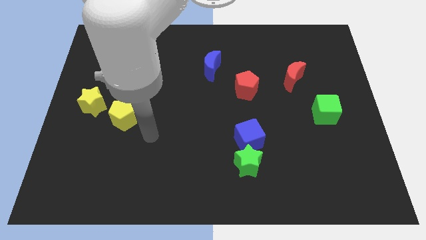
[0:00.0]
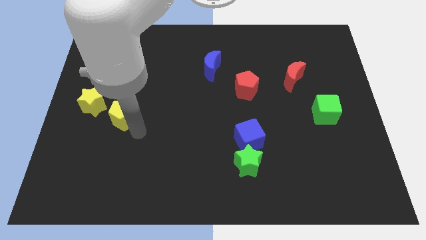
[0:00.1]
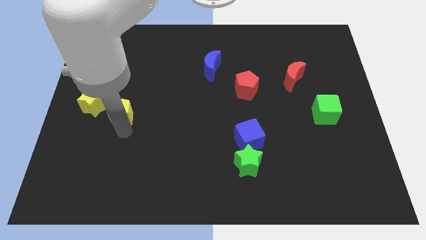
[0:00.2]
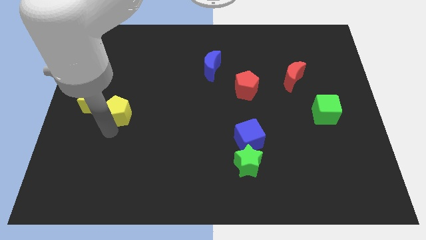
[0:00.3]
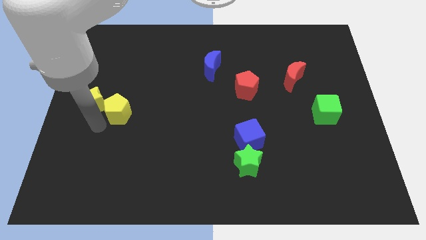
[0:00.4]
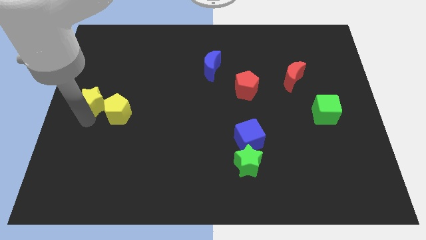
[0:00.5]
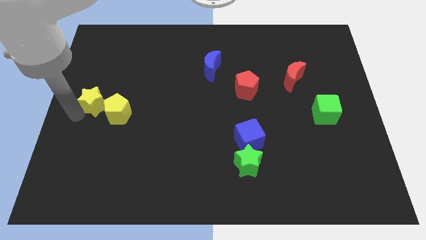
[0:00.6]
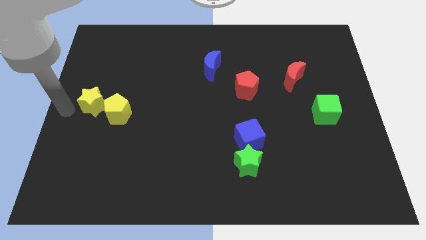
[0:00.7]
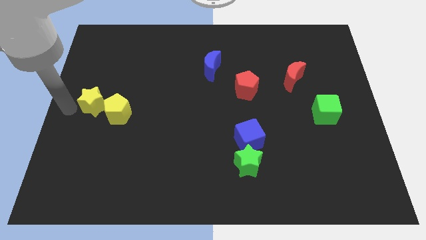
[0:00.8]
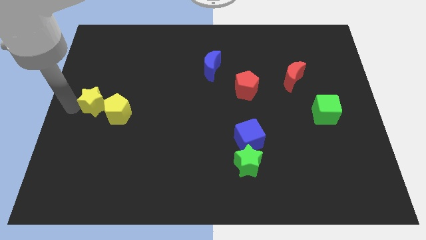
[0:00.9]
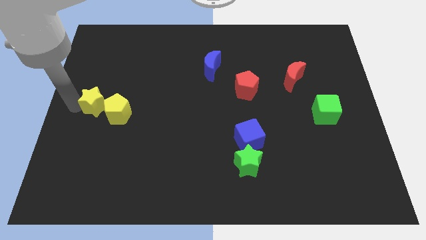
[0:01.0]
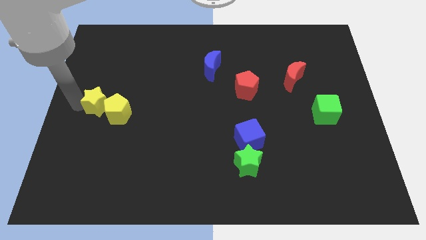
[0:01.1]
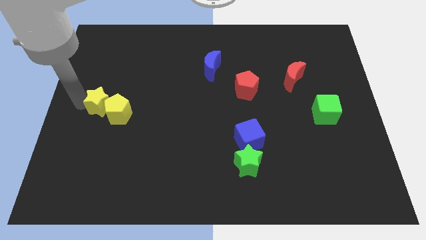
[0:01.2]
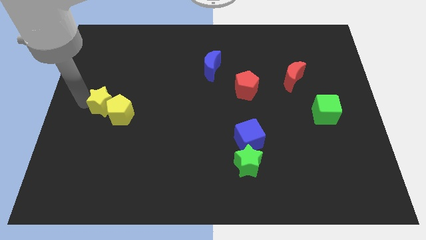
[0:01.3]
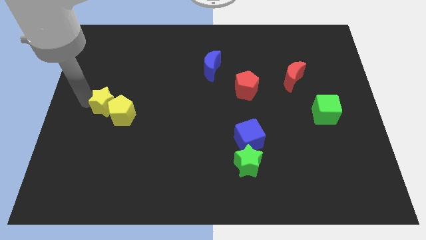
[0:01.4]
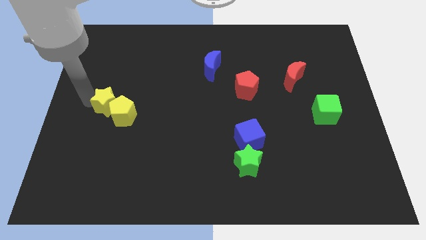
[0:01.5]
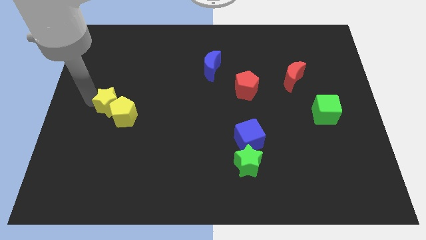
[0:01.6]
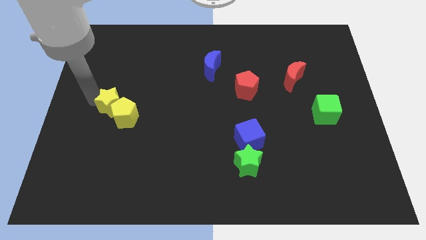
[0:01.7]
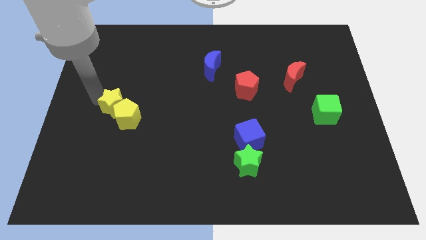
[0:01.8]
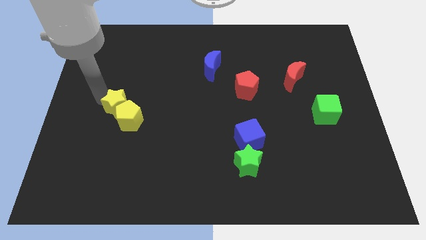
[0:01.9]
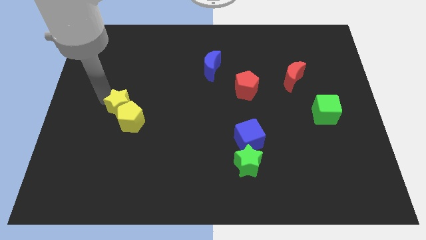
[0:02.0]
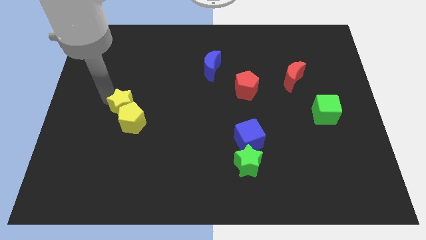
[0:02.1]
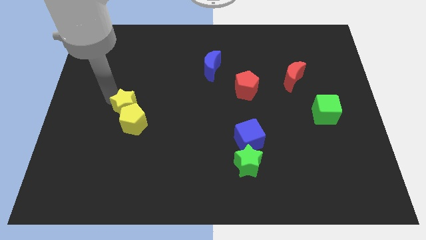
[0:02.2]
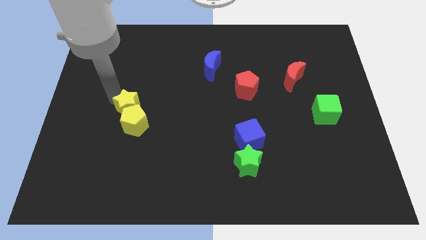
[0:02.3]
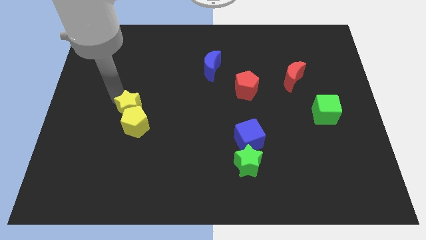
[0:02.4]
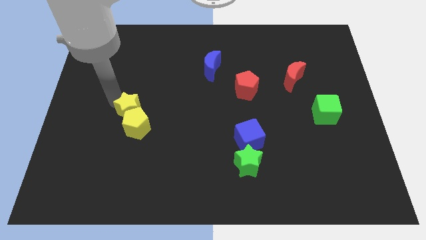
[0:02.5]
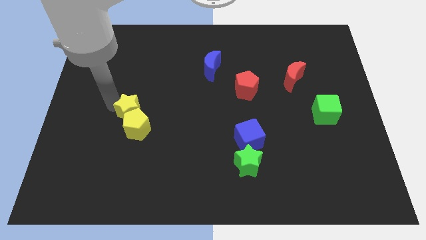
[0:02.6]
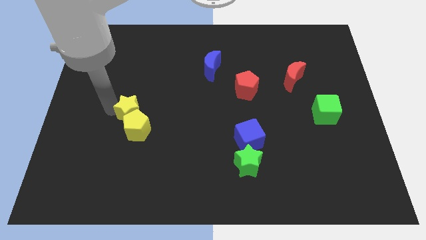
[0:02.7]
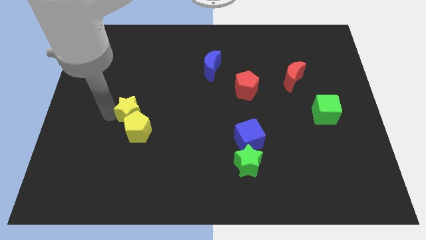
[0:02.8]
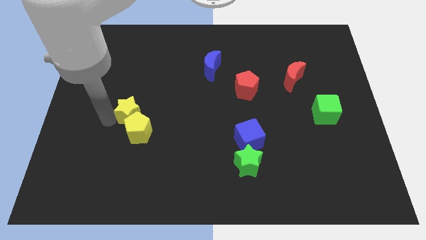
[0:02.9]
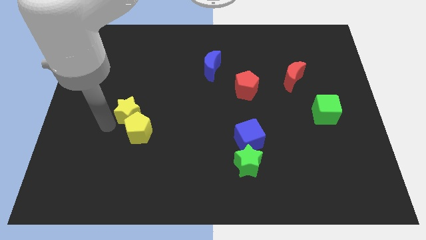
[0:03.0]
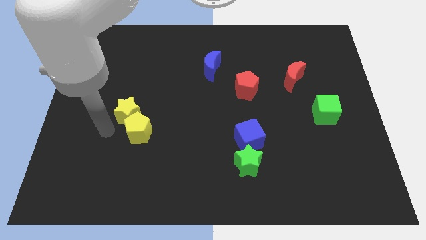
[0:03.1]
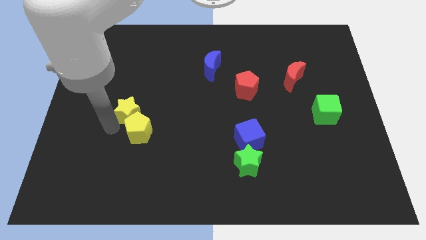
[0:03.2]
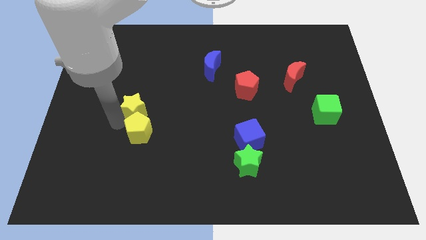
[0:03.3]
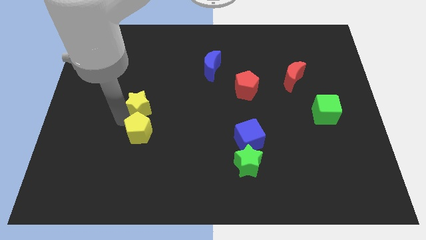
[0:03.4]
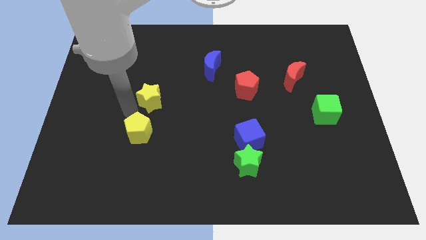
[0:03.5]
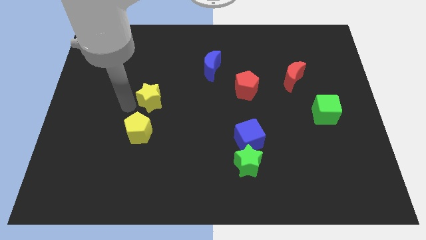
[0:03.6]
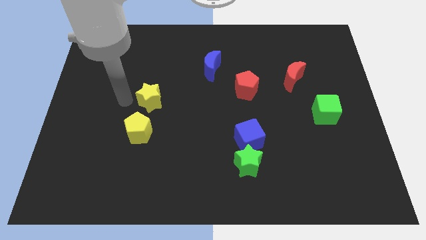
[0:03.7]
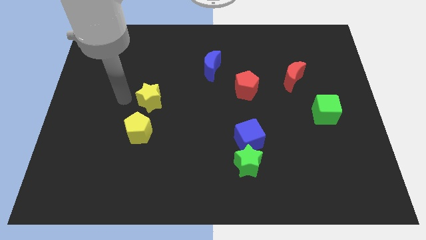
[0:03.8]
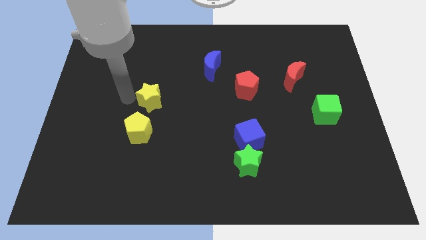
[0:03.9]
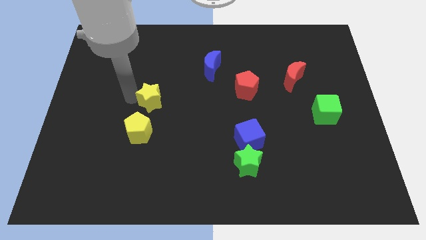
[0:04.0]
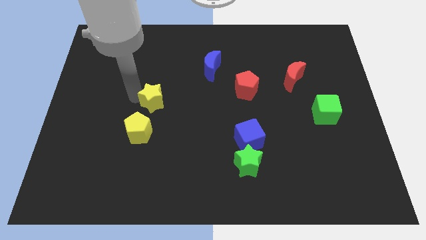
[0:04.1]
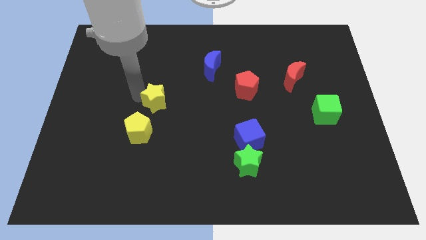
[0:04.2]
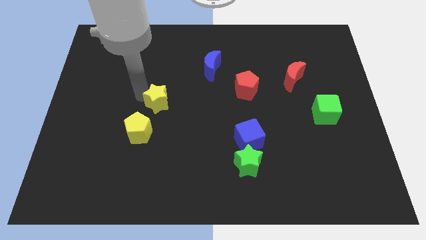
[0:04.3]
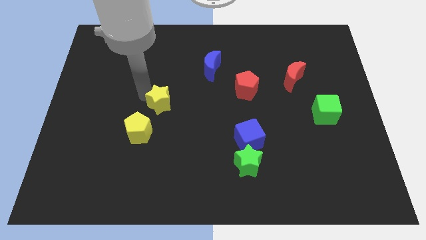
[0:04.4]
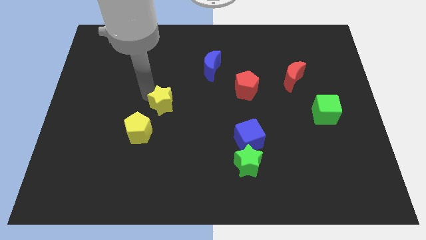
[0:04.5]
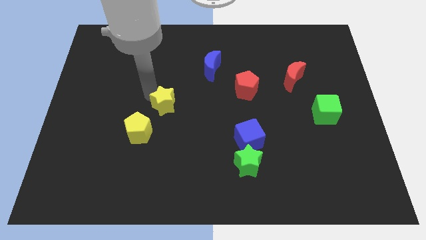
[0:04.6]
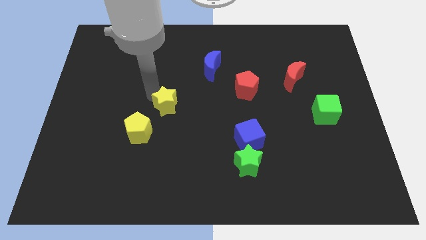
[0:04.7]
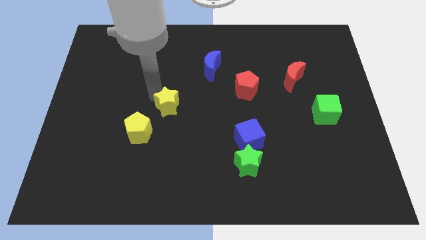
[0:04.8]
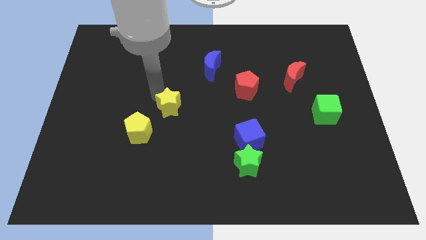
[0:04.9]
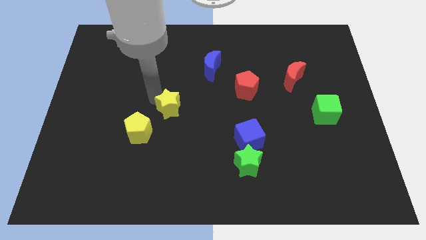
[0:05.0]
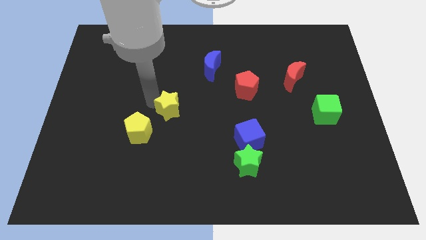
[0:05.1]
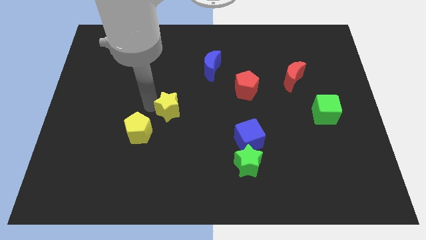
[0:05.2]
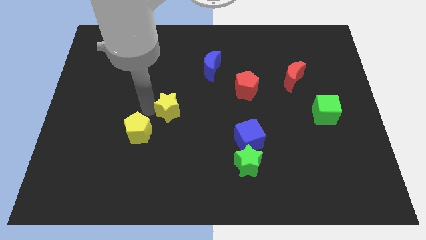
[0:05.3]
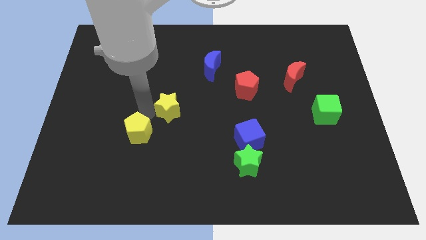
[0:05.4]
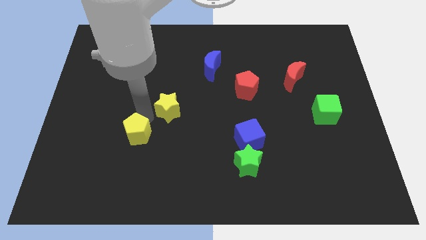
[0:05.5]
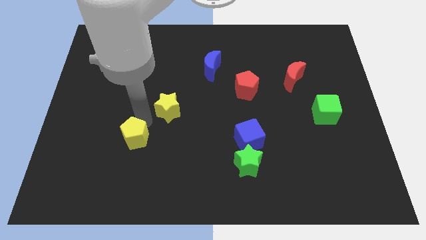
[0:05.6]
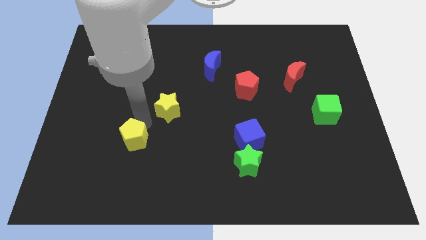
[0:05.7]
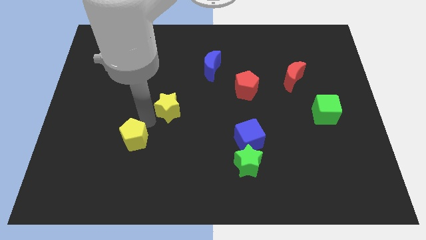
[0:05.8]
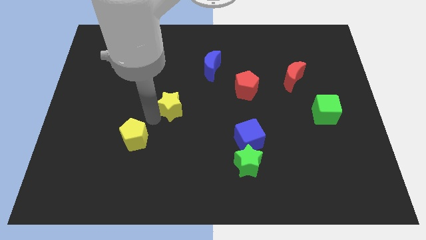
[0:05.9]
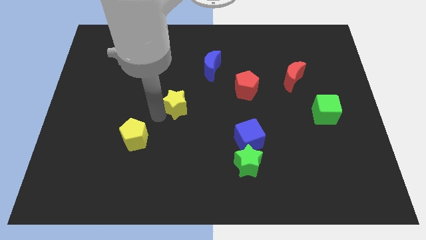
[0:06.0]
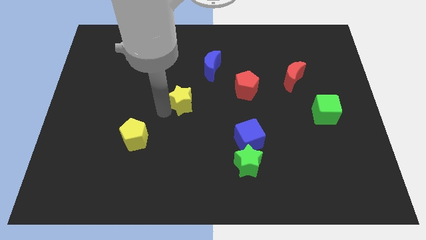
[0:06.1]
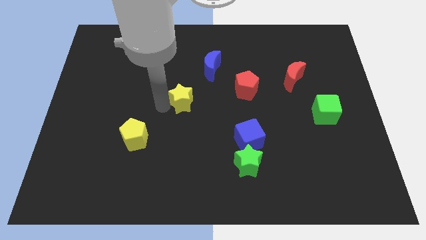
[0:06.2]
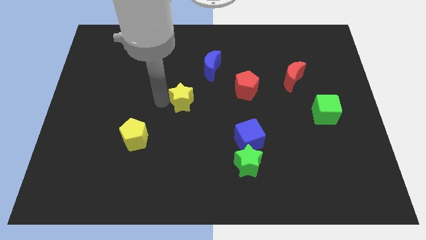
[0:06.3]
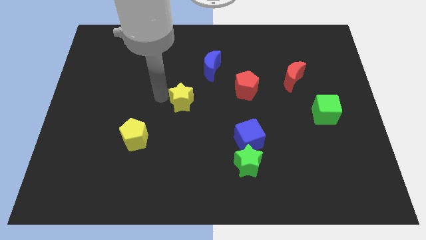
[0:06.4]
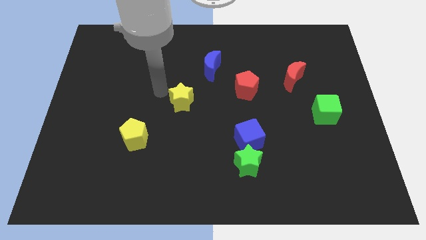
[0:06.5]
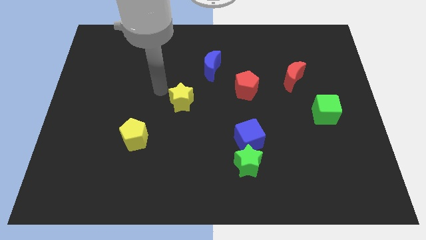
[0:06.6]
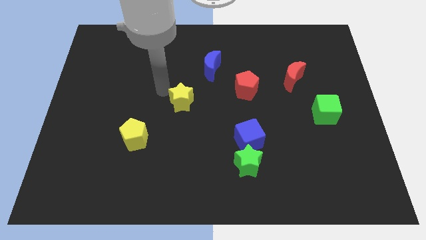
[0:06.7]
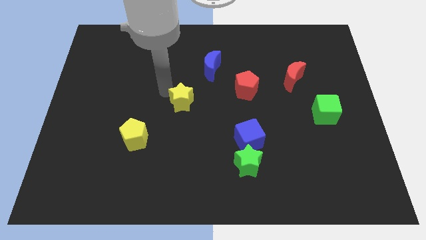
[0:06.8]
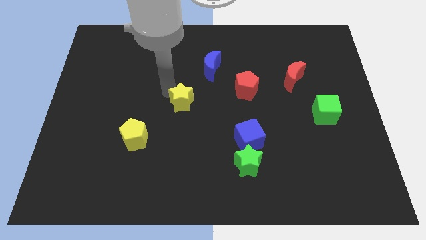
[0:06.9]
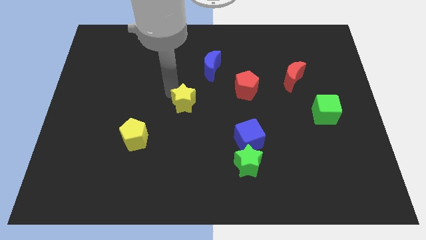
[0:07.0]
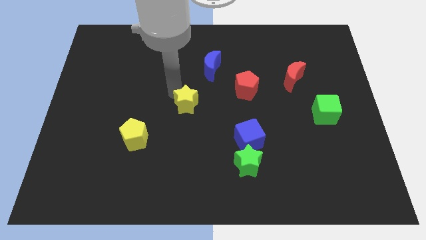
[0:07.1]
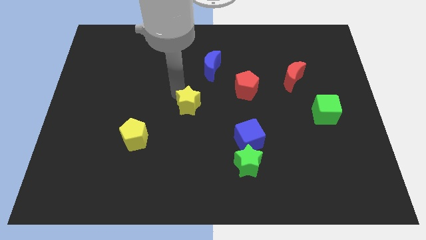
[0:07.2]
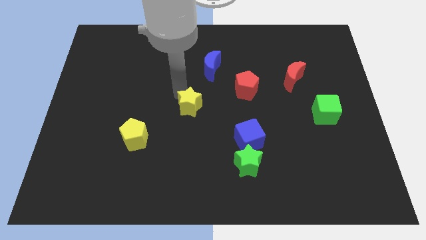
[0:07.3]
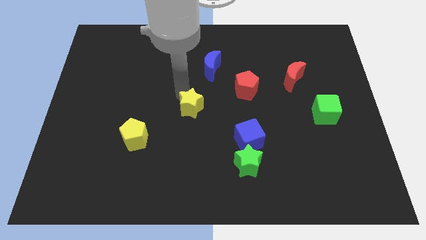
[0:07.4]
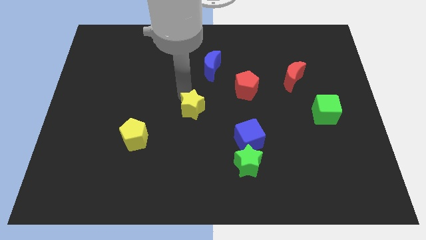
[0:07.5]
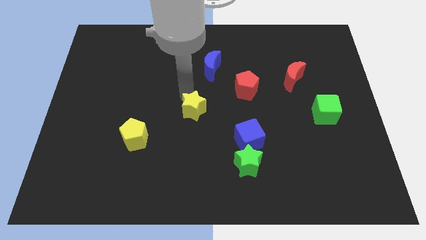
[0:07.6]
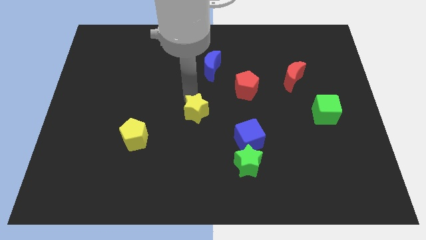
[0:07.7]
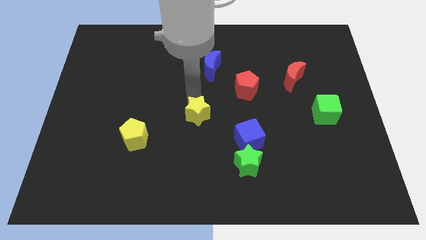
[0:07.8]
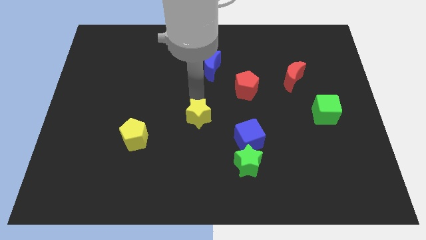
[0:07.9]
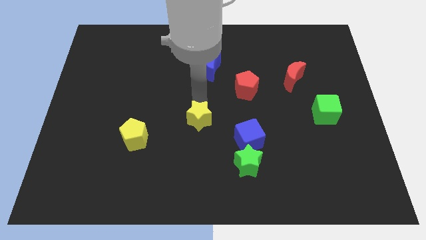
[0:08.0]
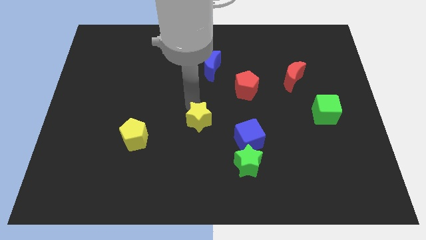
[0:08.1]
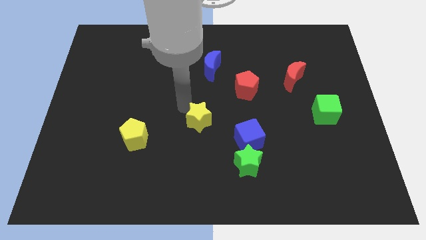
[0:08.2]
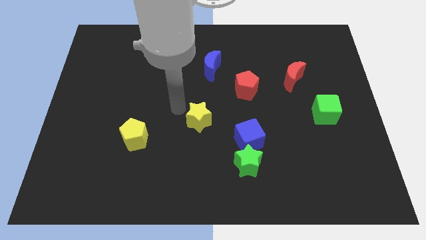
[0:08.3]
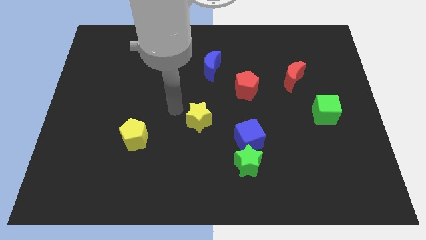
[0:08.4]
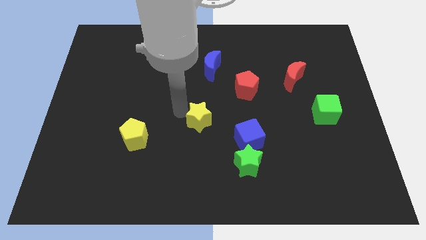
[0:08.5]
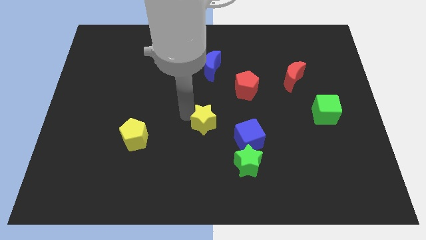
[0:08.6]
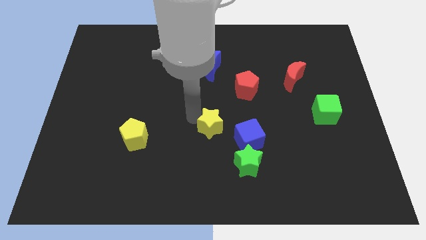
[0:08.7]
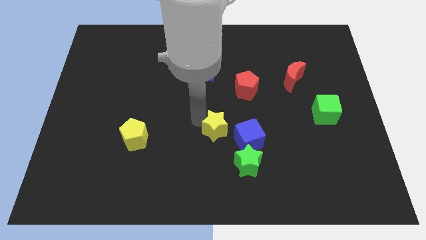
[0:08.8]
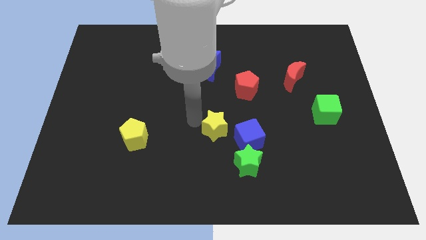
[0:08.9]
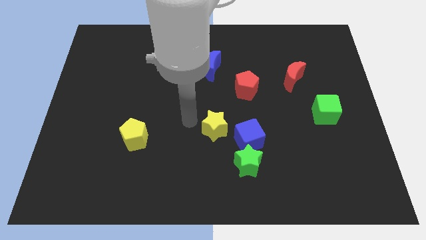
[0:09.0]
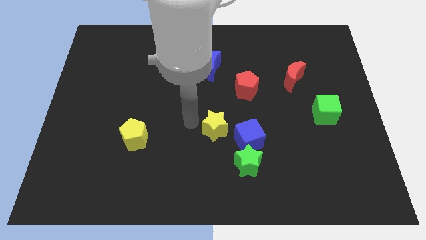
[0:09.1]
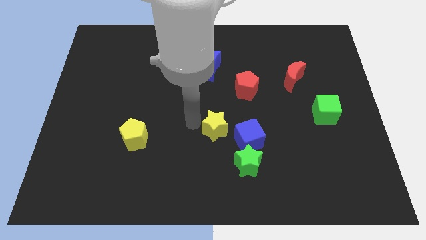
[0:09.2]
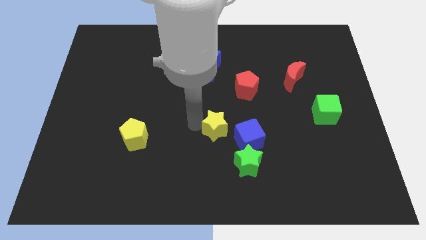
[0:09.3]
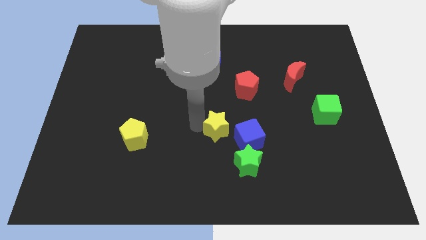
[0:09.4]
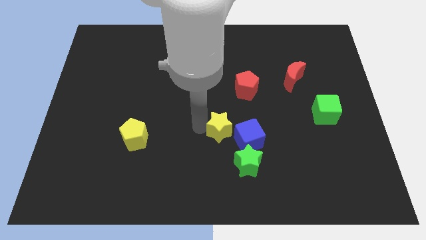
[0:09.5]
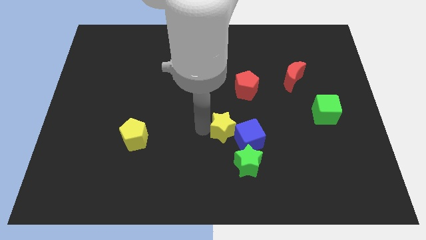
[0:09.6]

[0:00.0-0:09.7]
put the yellow star towards the blue cube
